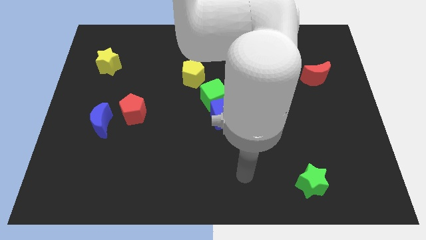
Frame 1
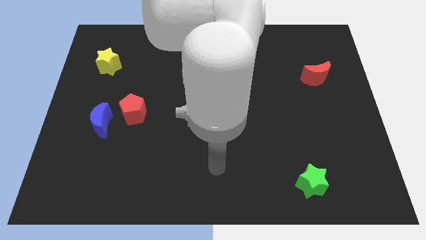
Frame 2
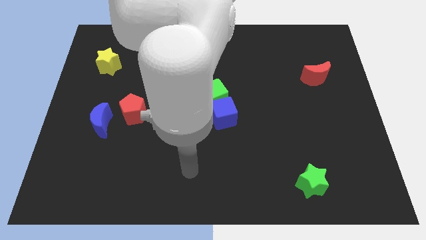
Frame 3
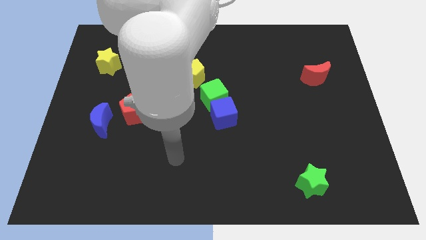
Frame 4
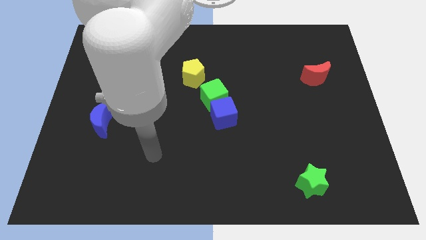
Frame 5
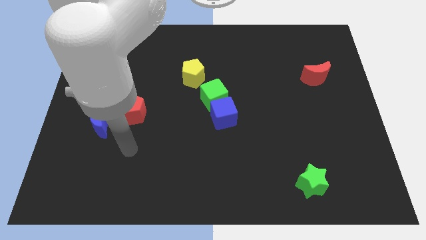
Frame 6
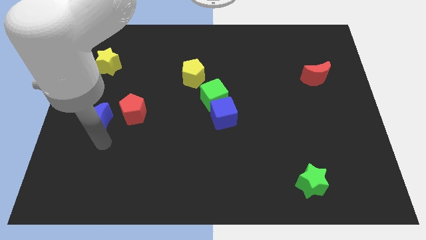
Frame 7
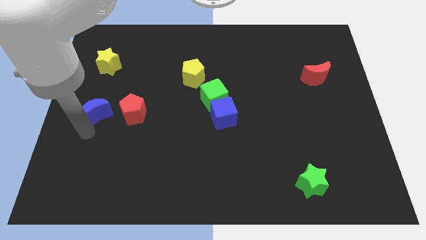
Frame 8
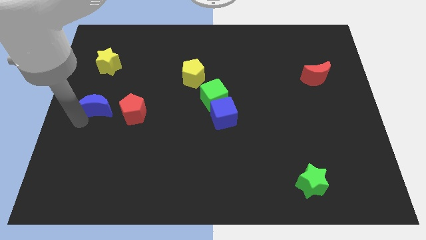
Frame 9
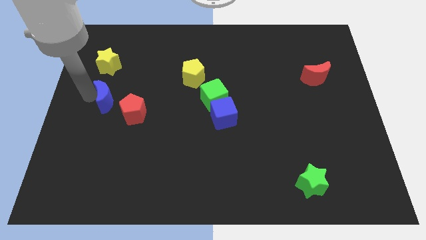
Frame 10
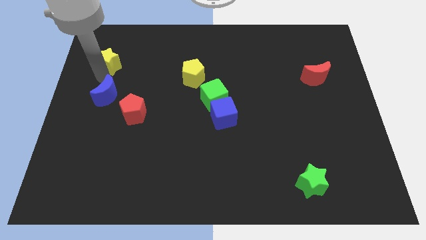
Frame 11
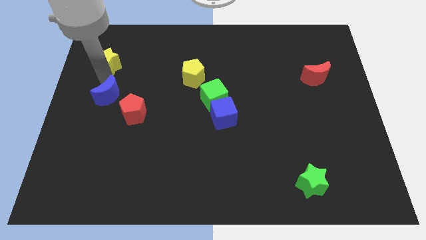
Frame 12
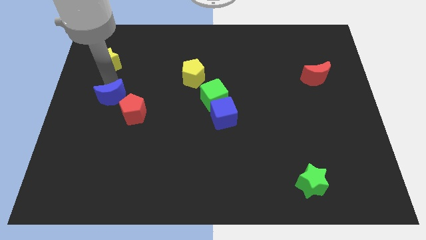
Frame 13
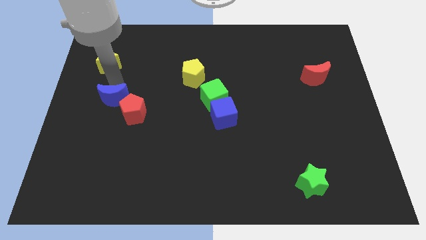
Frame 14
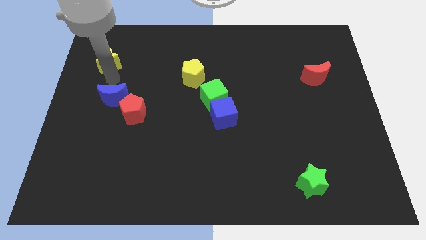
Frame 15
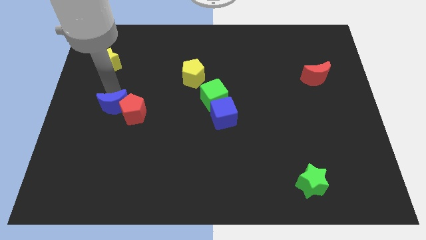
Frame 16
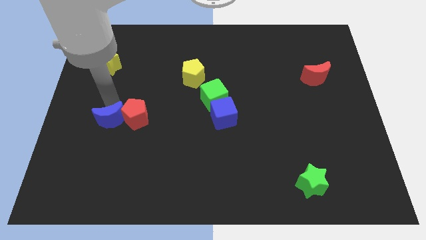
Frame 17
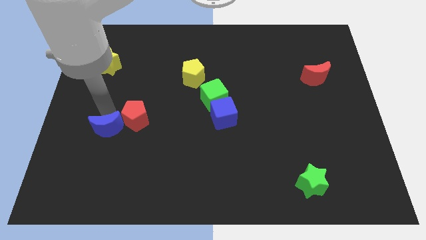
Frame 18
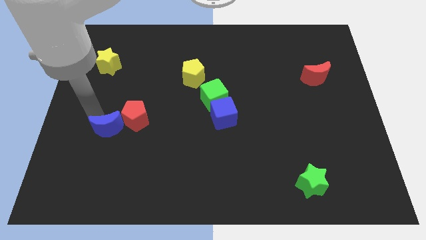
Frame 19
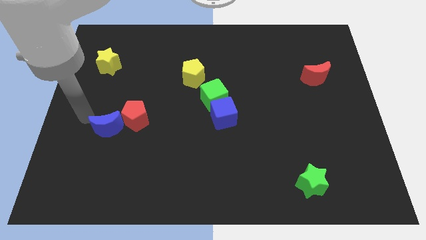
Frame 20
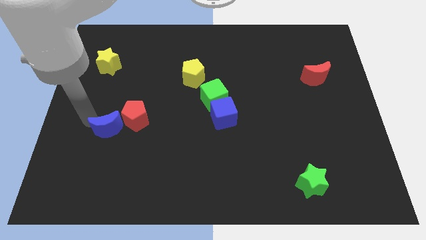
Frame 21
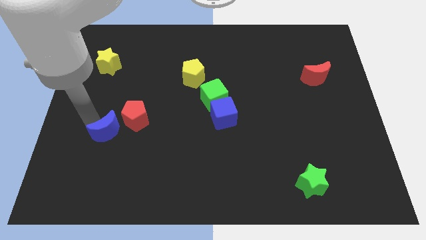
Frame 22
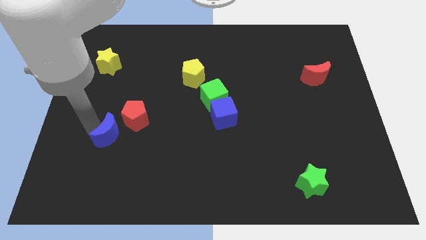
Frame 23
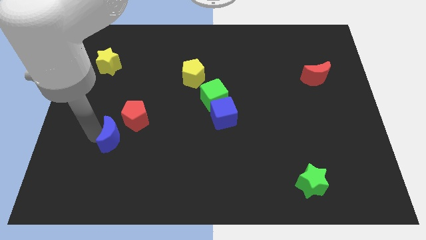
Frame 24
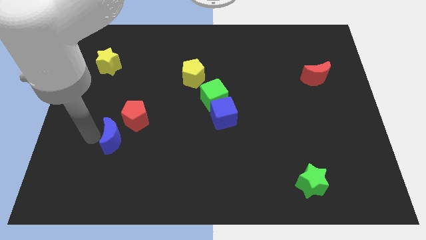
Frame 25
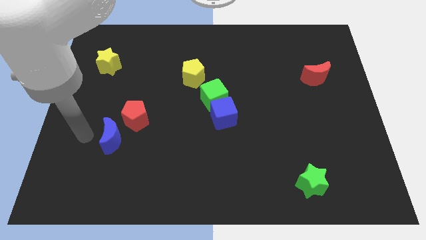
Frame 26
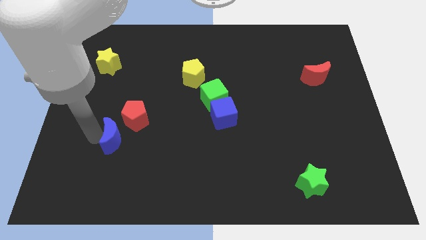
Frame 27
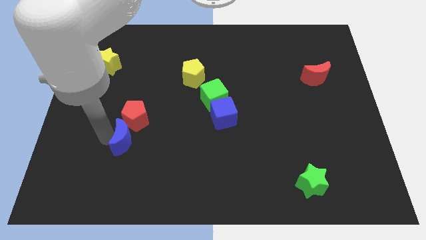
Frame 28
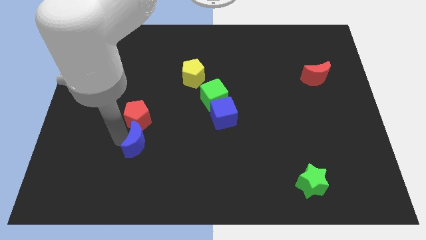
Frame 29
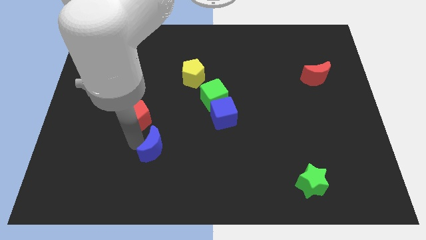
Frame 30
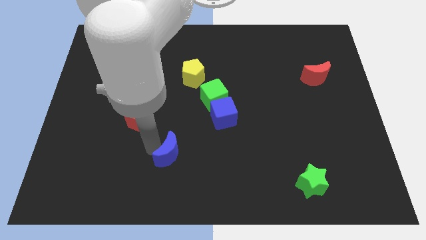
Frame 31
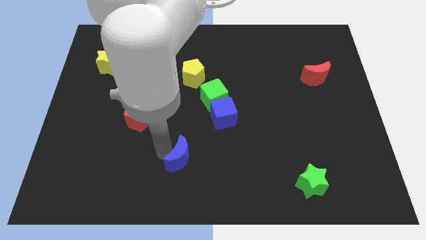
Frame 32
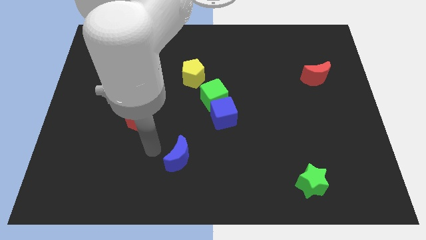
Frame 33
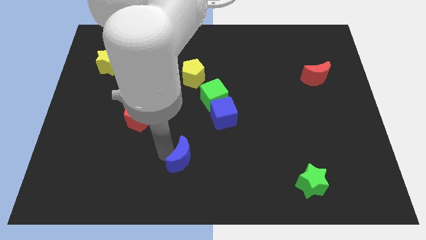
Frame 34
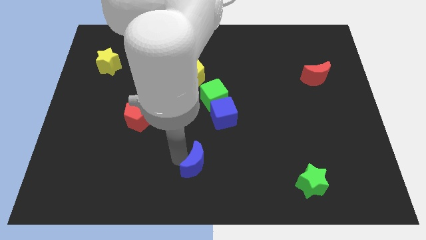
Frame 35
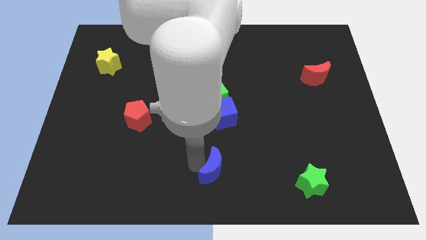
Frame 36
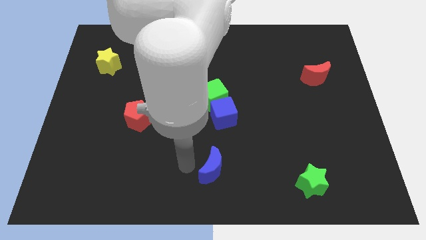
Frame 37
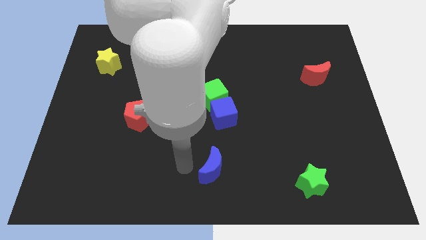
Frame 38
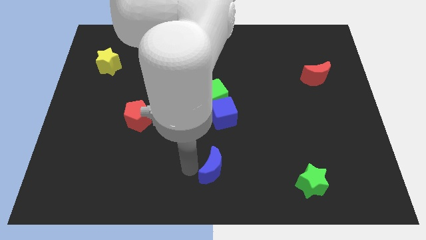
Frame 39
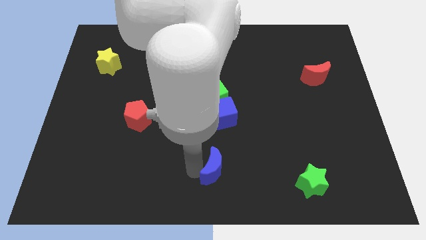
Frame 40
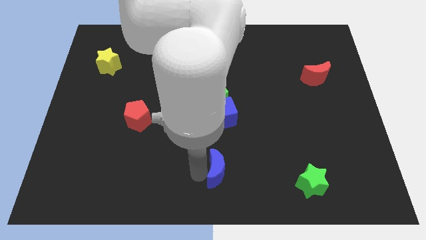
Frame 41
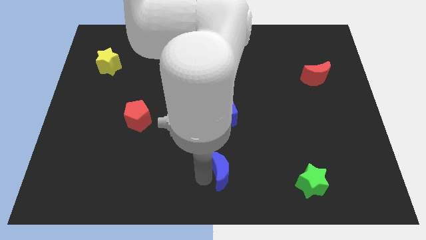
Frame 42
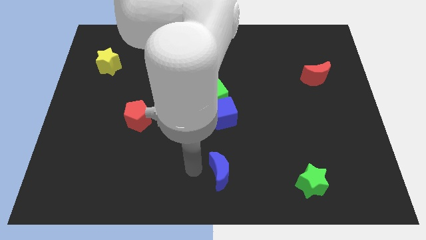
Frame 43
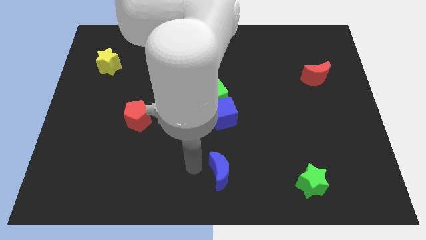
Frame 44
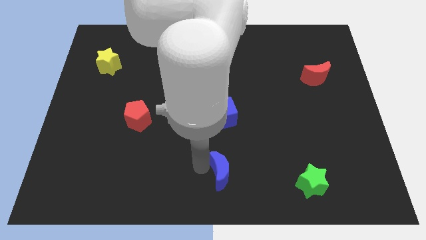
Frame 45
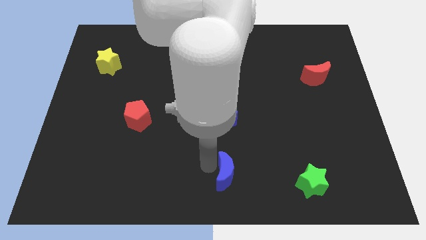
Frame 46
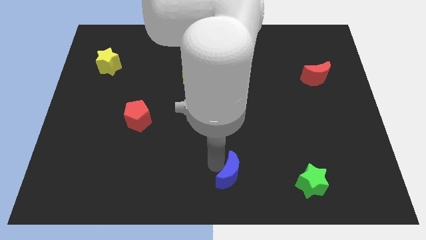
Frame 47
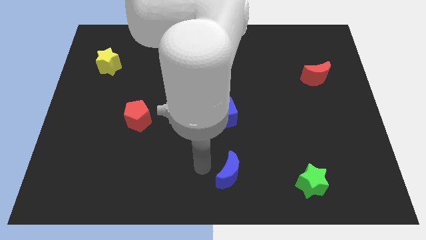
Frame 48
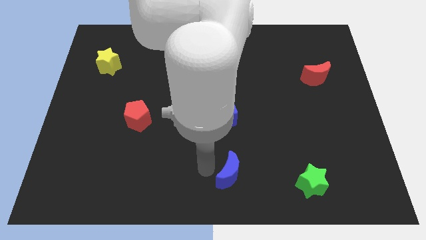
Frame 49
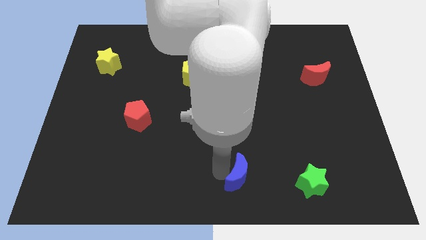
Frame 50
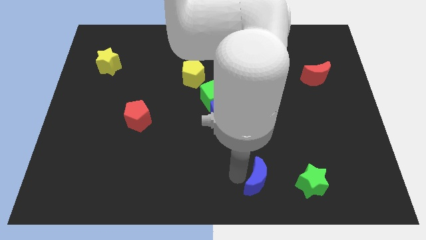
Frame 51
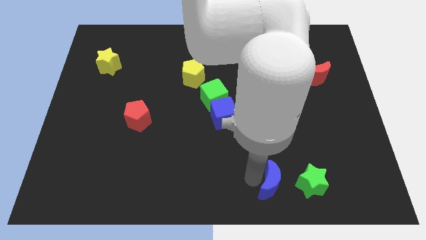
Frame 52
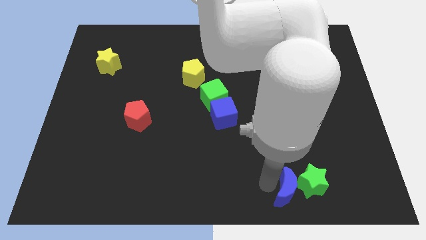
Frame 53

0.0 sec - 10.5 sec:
move the blue moon towards the green star

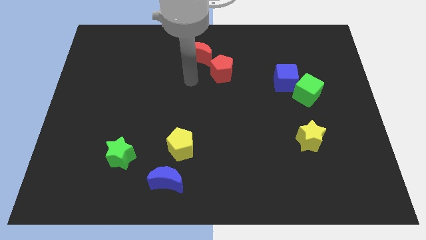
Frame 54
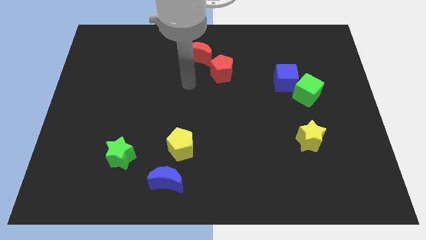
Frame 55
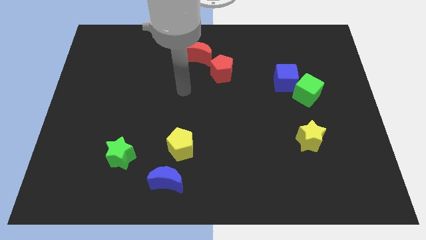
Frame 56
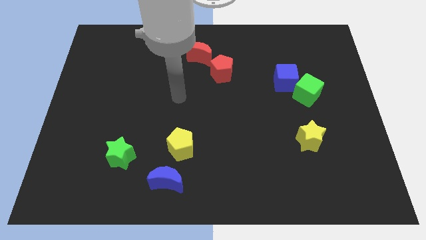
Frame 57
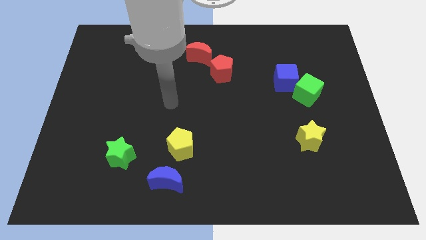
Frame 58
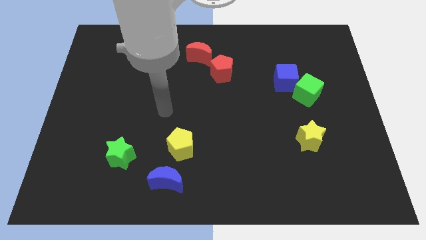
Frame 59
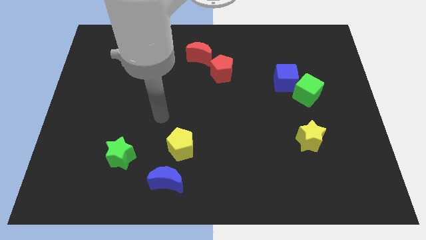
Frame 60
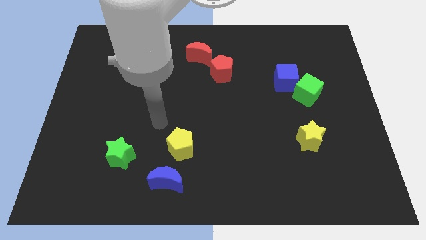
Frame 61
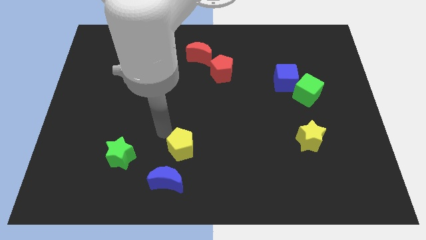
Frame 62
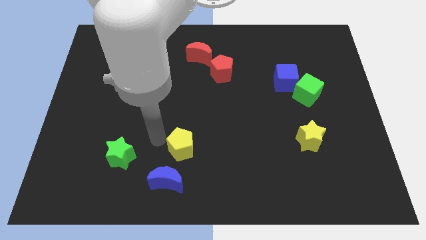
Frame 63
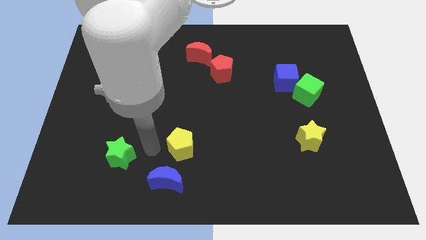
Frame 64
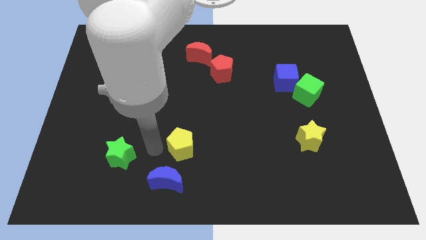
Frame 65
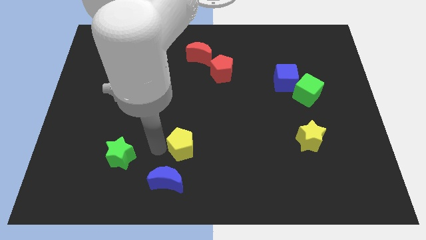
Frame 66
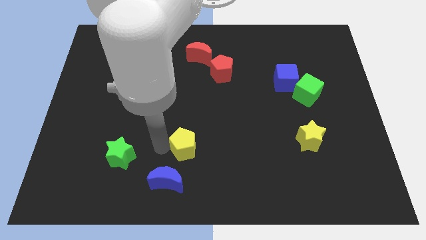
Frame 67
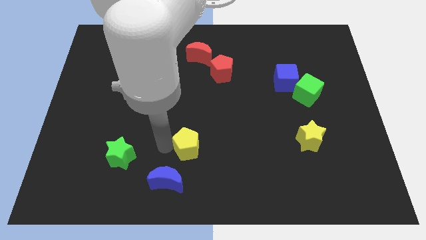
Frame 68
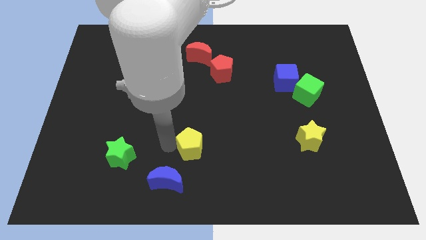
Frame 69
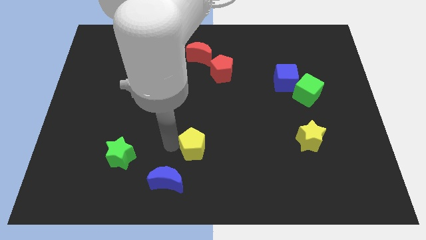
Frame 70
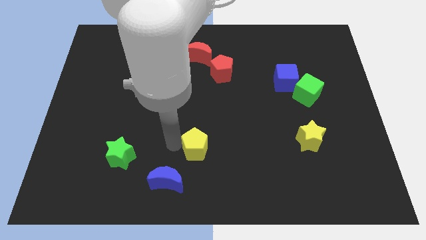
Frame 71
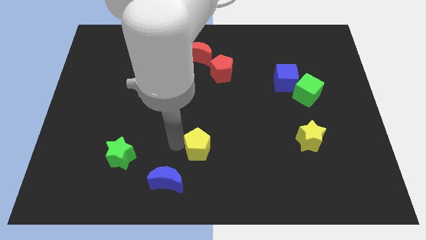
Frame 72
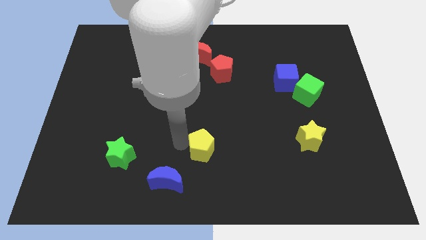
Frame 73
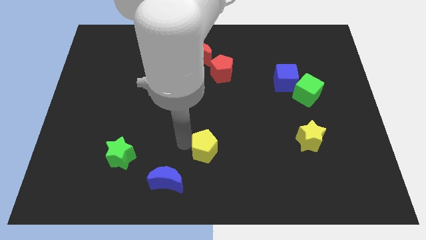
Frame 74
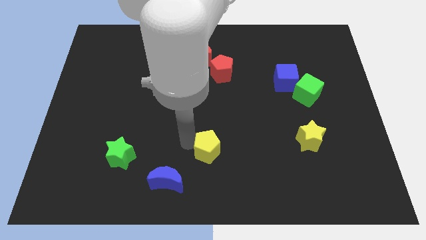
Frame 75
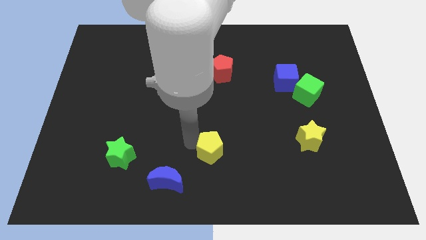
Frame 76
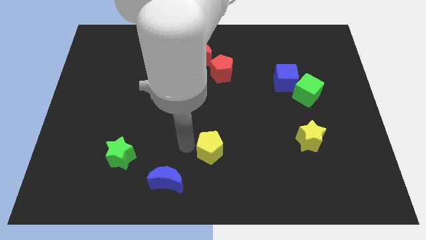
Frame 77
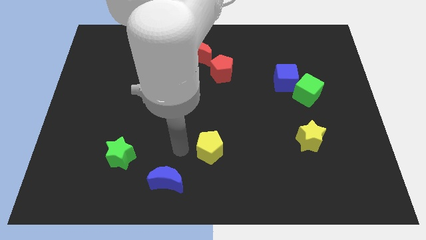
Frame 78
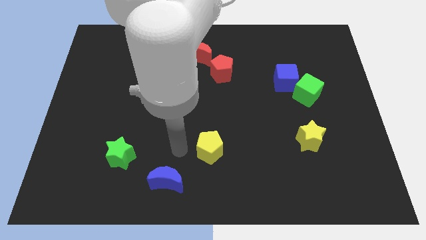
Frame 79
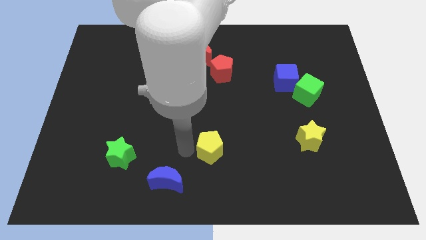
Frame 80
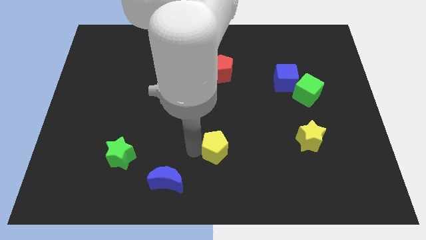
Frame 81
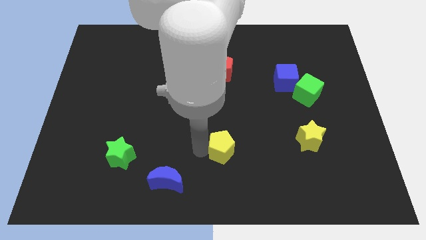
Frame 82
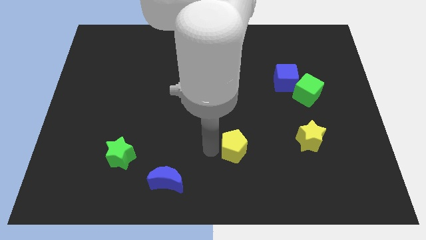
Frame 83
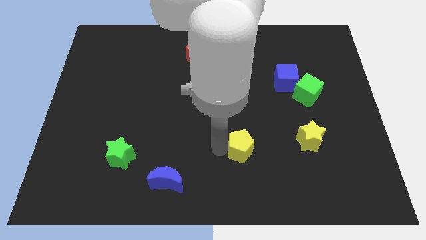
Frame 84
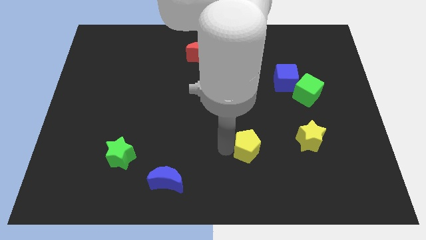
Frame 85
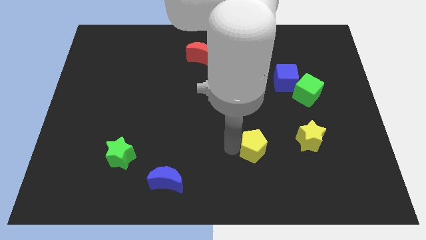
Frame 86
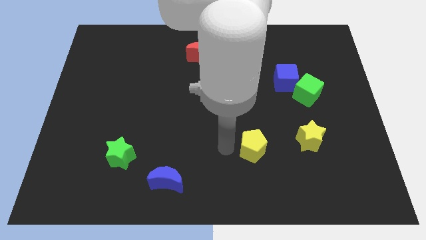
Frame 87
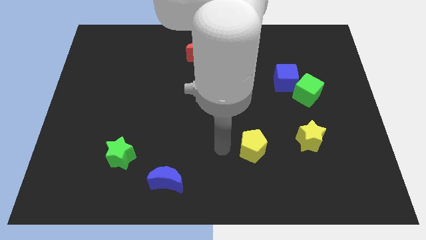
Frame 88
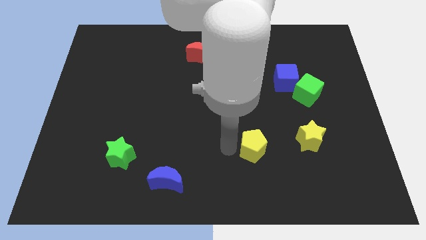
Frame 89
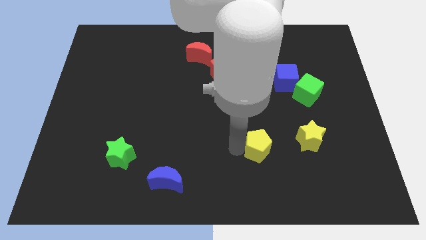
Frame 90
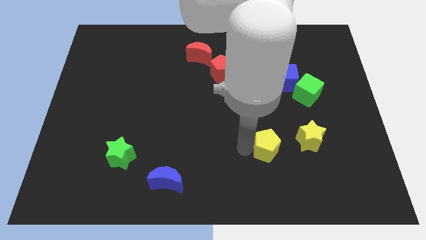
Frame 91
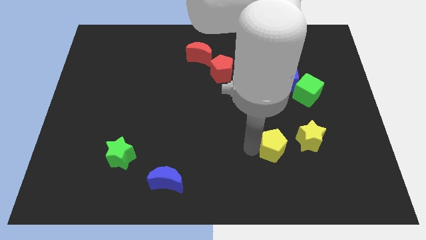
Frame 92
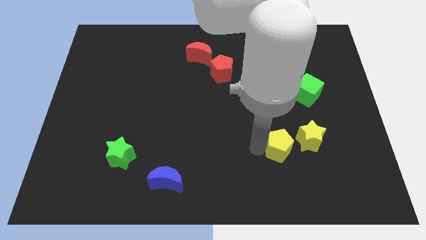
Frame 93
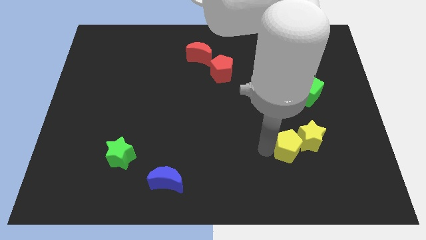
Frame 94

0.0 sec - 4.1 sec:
put the yellow pentagon to the yellow star
